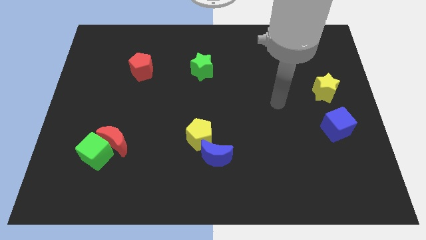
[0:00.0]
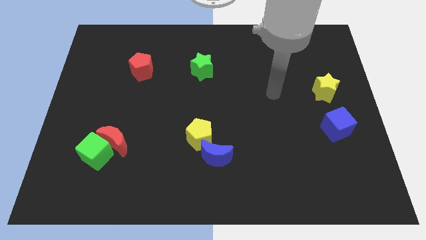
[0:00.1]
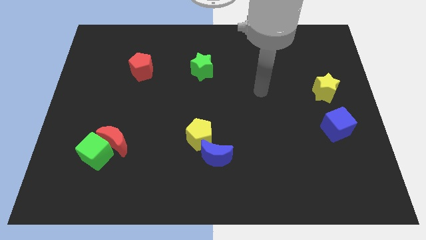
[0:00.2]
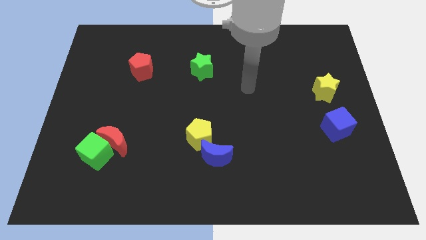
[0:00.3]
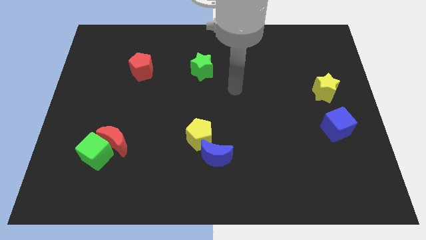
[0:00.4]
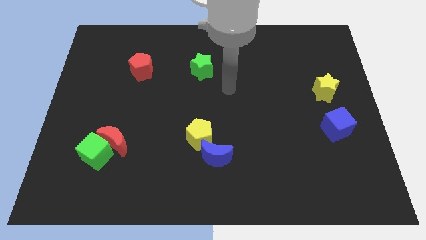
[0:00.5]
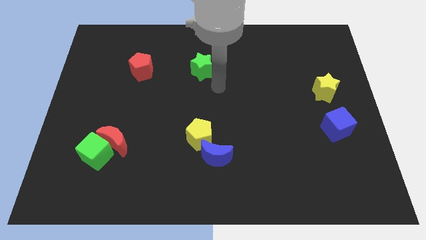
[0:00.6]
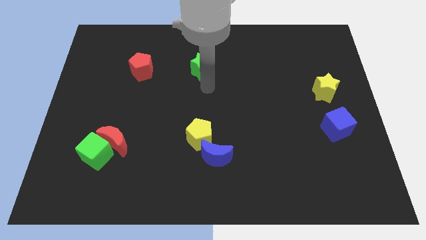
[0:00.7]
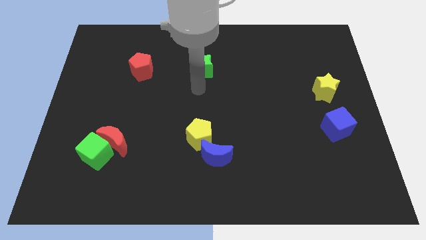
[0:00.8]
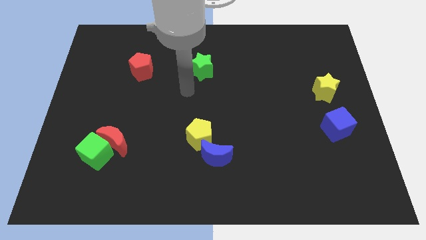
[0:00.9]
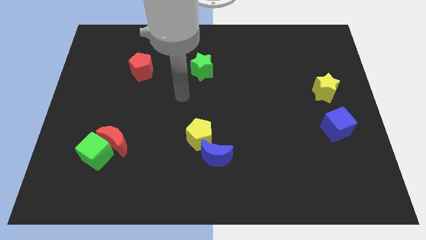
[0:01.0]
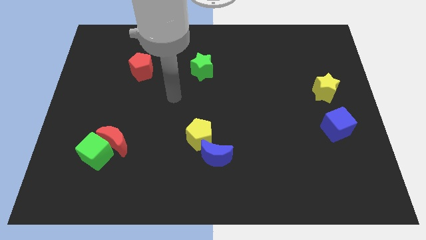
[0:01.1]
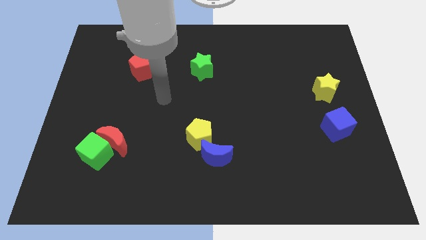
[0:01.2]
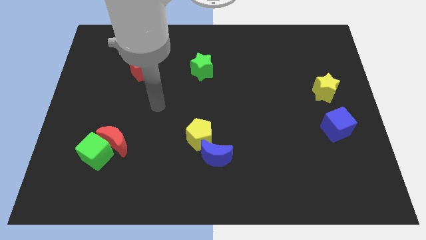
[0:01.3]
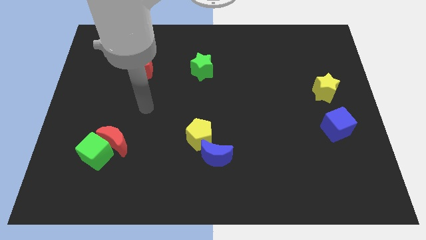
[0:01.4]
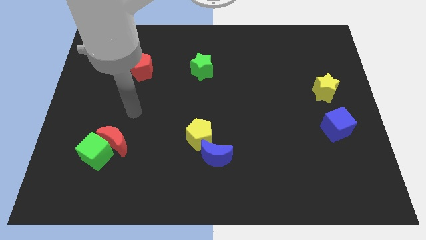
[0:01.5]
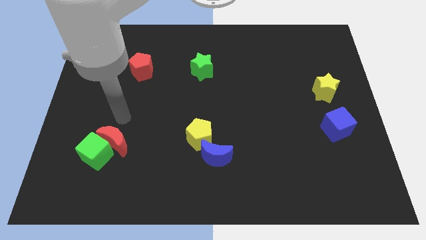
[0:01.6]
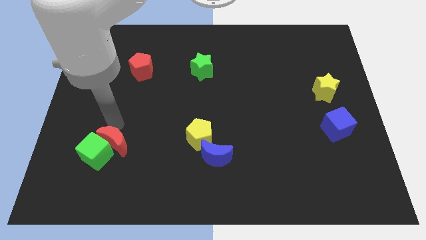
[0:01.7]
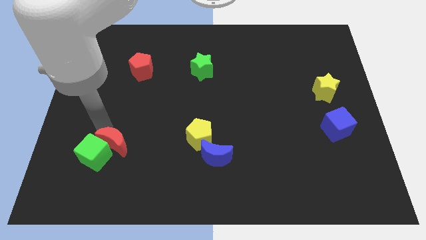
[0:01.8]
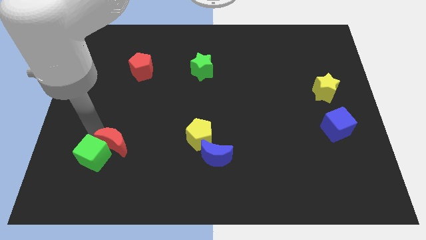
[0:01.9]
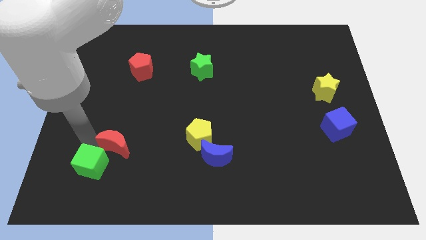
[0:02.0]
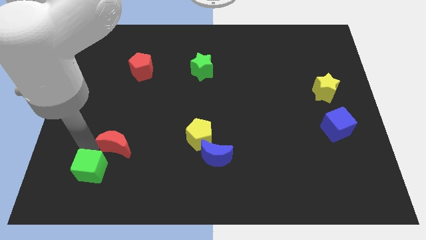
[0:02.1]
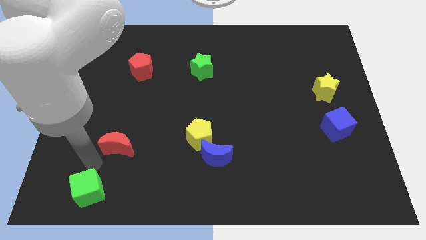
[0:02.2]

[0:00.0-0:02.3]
move the red moon away from the green cube

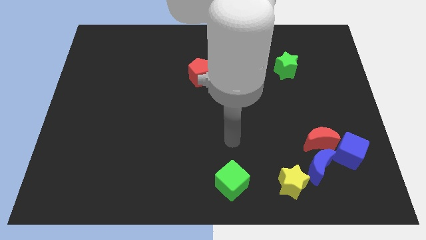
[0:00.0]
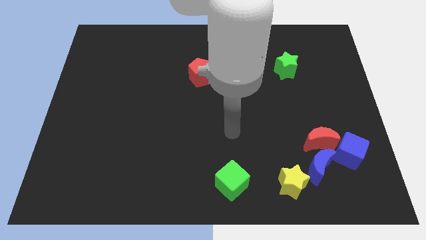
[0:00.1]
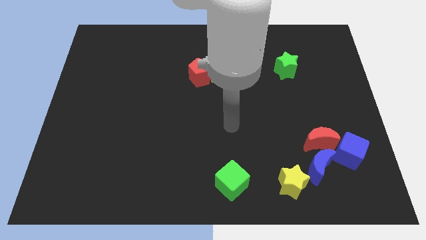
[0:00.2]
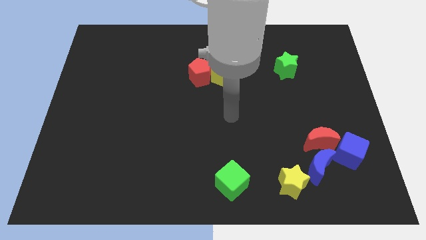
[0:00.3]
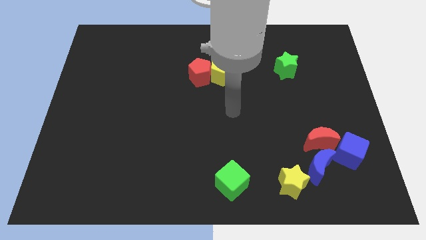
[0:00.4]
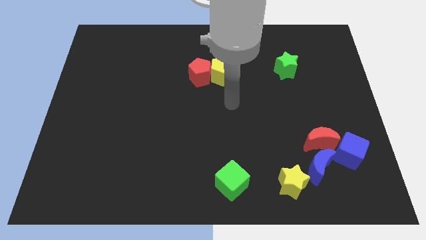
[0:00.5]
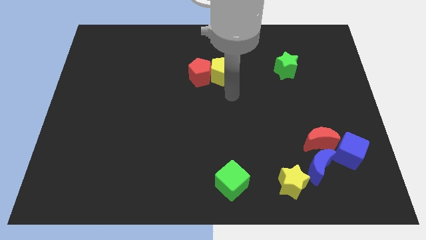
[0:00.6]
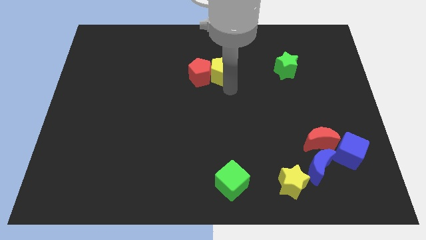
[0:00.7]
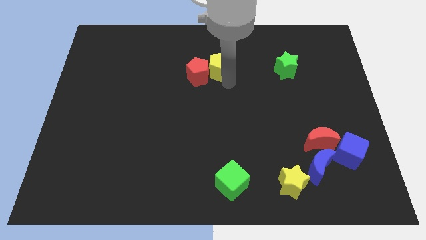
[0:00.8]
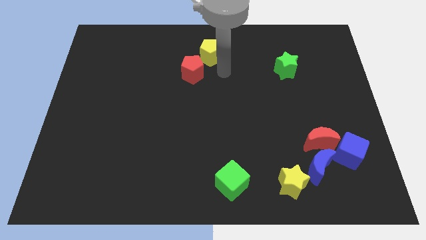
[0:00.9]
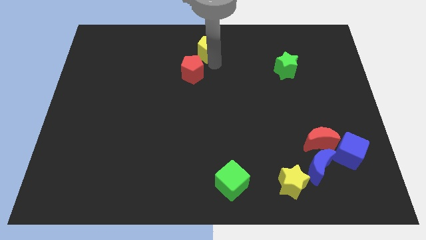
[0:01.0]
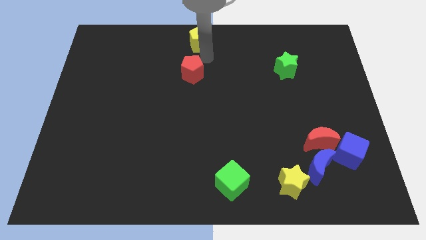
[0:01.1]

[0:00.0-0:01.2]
separate the red pentagon from the yellow pentagon

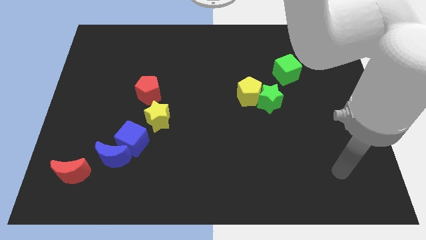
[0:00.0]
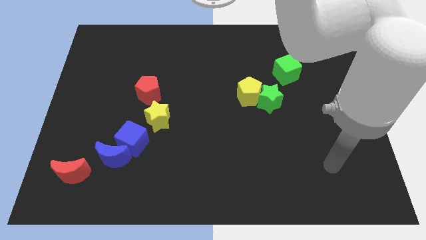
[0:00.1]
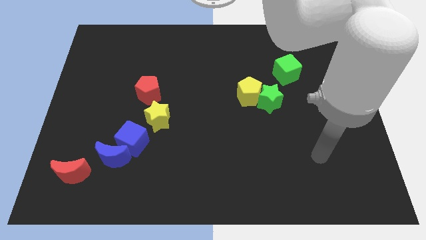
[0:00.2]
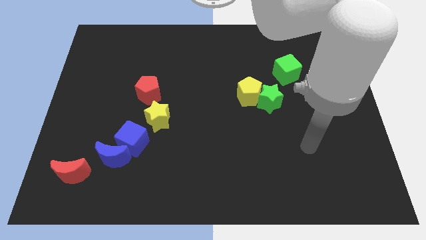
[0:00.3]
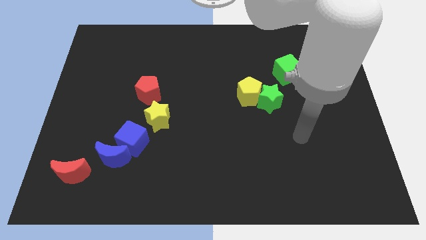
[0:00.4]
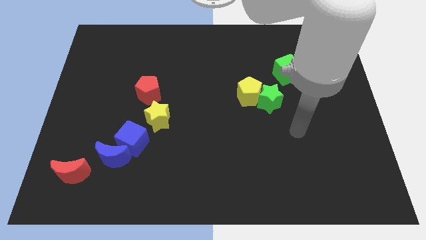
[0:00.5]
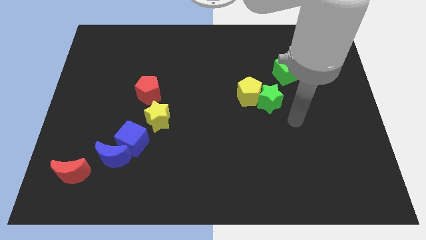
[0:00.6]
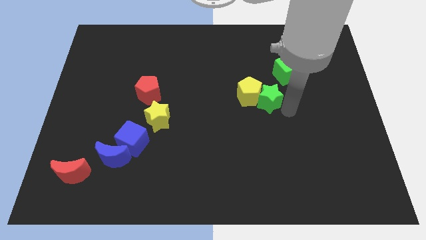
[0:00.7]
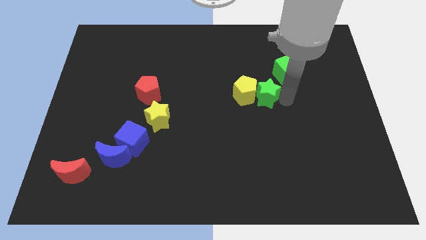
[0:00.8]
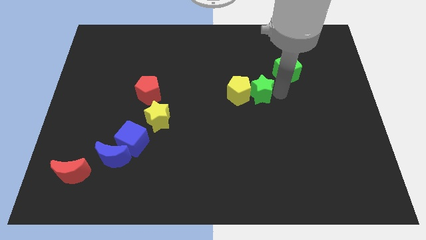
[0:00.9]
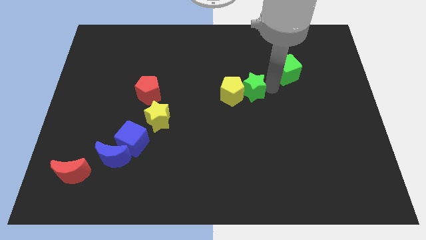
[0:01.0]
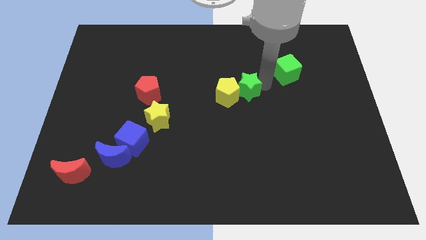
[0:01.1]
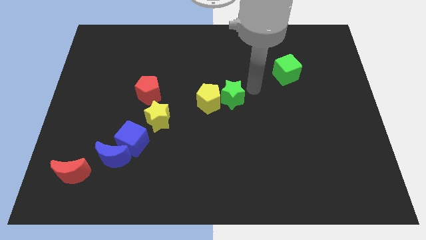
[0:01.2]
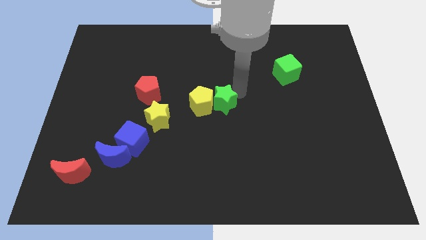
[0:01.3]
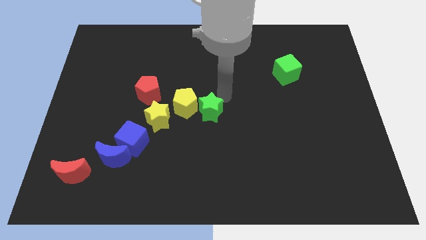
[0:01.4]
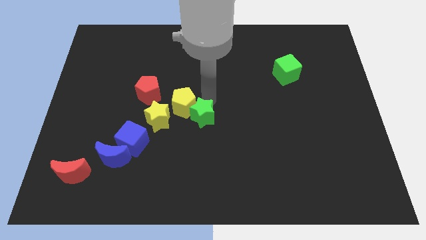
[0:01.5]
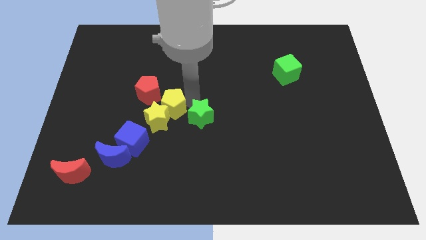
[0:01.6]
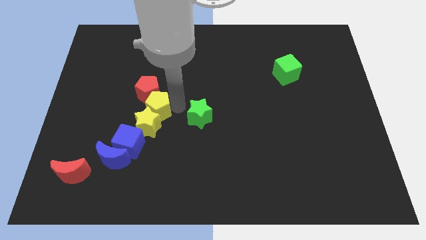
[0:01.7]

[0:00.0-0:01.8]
separate the green star from the yellow pentagon

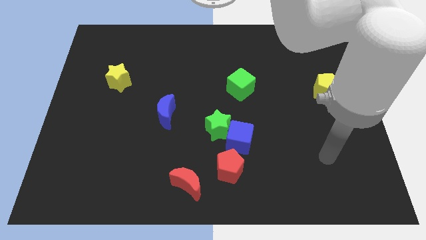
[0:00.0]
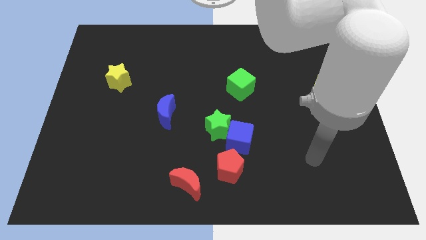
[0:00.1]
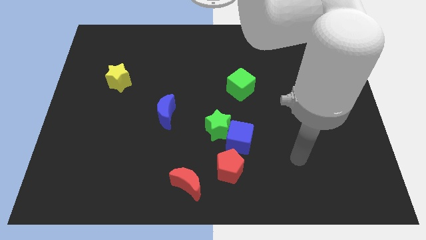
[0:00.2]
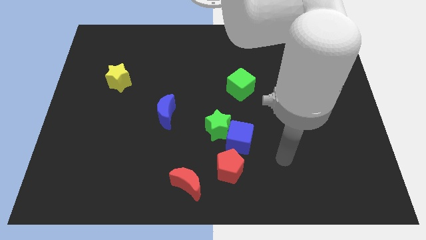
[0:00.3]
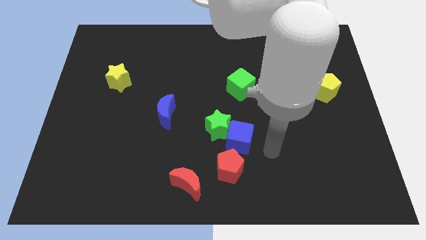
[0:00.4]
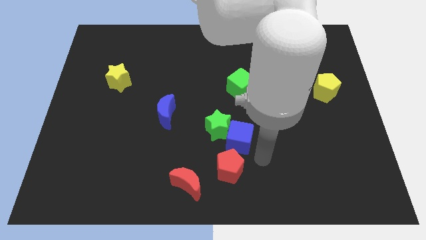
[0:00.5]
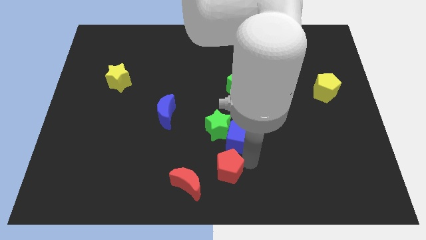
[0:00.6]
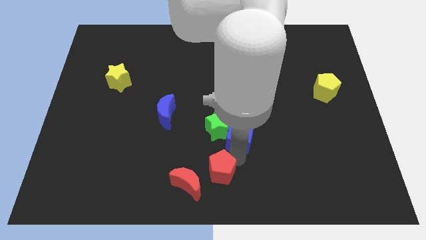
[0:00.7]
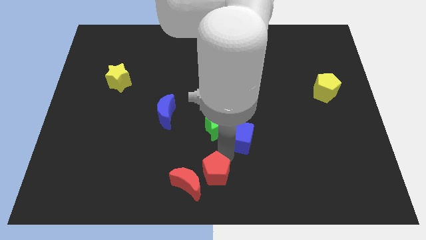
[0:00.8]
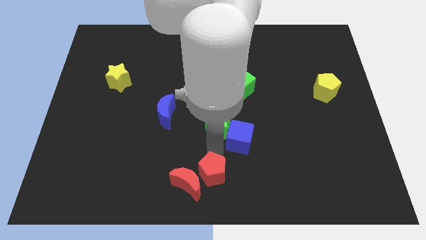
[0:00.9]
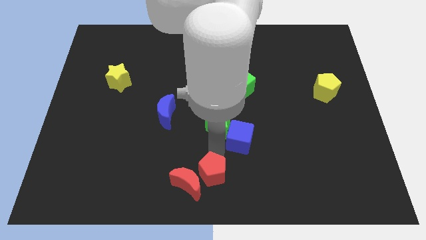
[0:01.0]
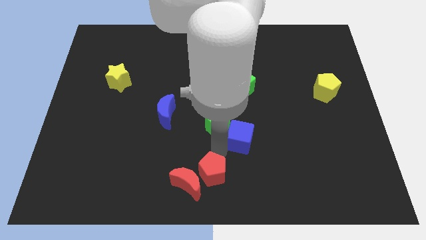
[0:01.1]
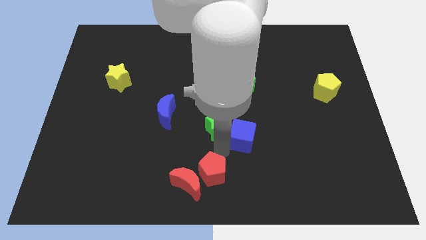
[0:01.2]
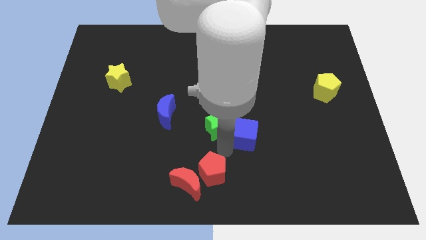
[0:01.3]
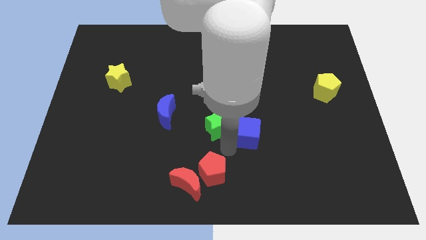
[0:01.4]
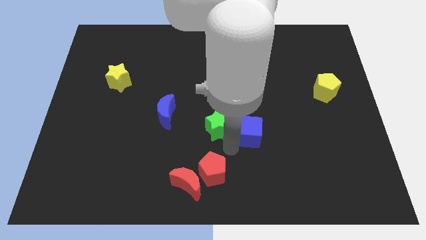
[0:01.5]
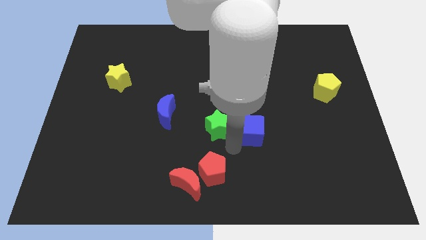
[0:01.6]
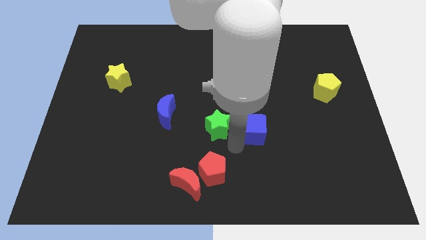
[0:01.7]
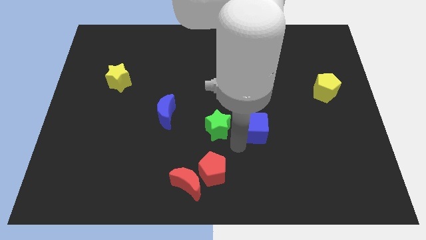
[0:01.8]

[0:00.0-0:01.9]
separate the blue cube from the green star and red pentagon

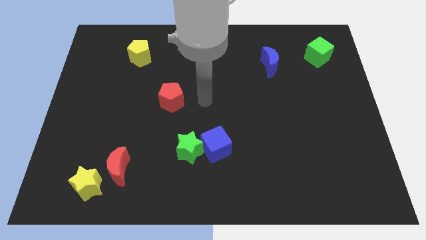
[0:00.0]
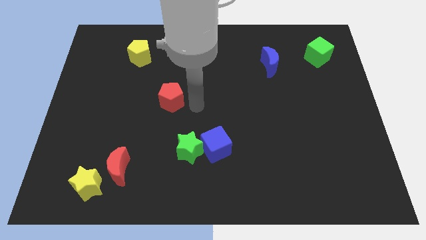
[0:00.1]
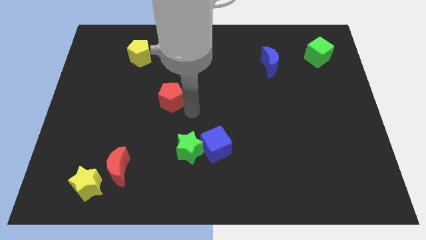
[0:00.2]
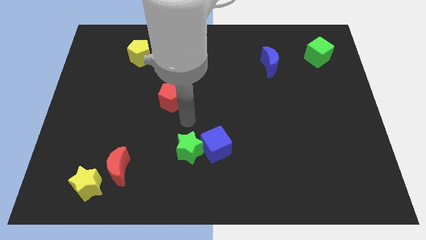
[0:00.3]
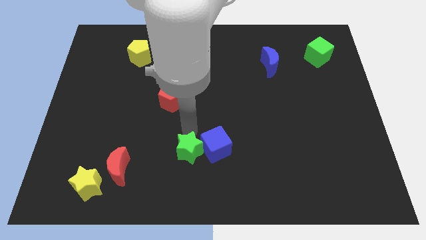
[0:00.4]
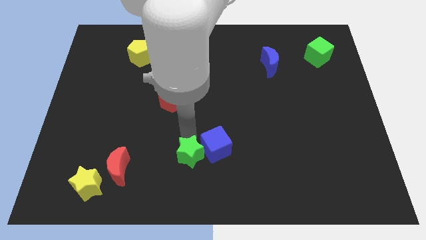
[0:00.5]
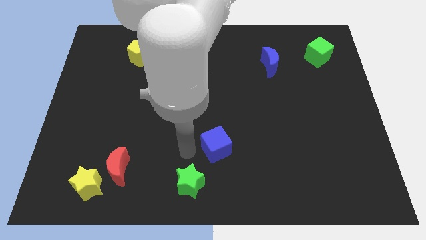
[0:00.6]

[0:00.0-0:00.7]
separate the blue cube from the green star

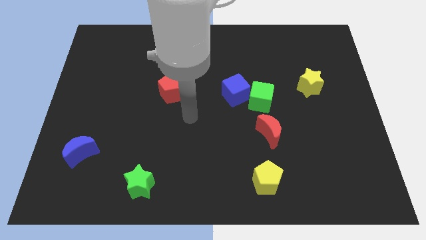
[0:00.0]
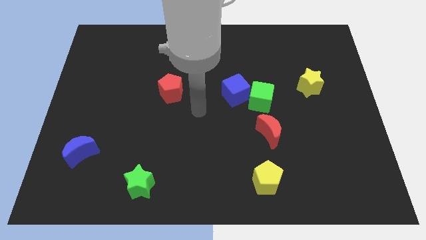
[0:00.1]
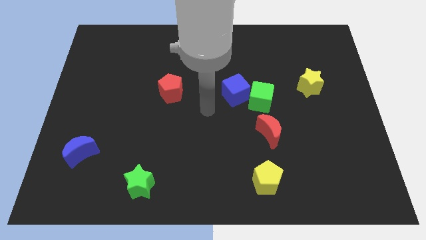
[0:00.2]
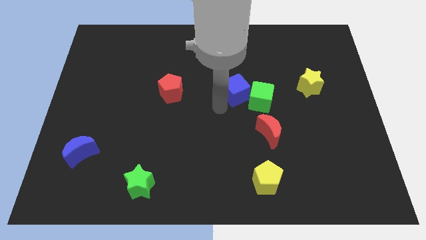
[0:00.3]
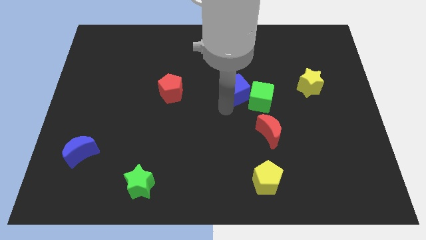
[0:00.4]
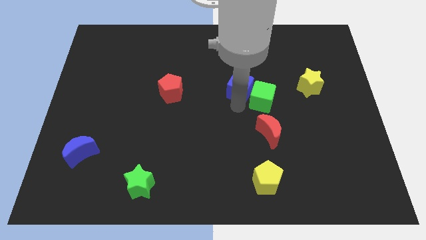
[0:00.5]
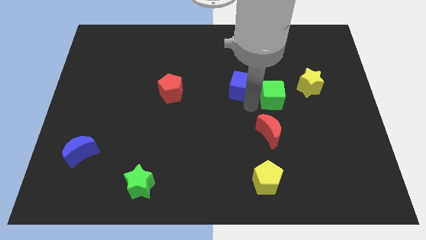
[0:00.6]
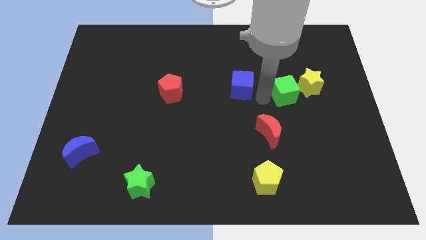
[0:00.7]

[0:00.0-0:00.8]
move the blue cube away from the green cube

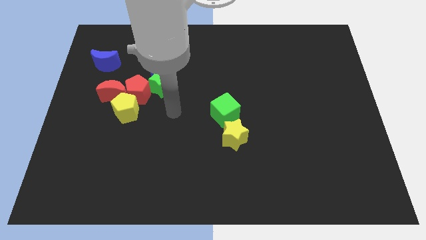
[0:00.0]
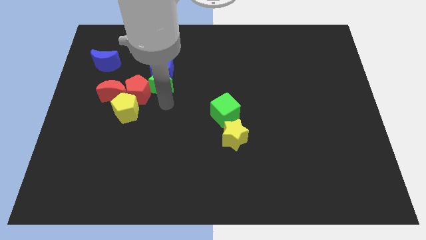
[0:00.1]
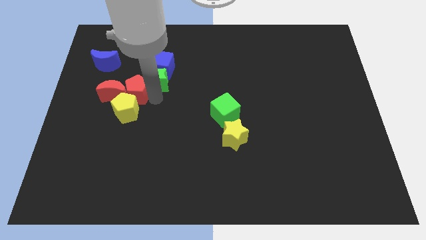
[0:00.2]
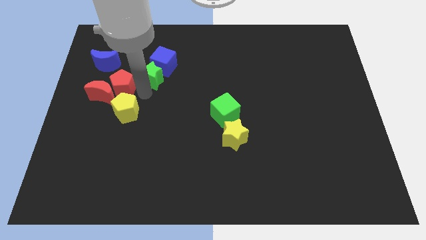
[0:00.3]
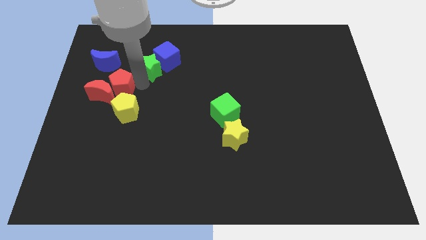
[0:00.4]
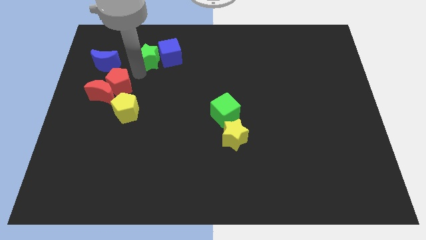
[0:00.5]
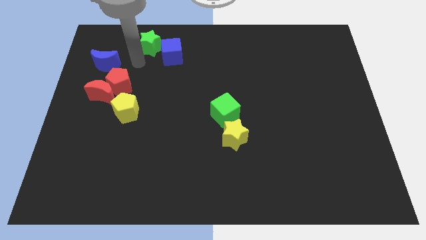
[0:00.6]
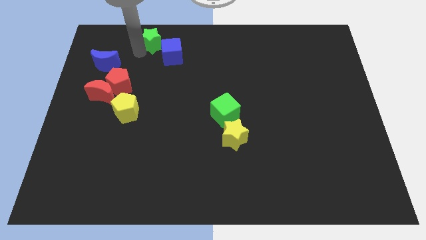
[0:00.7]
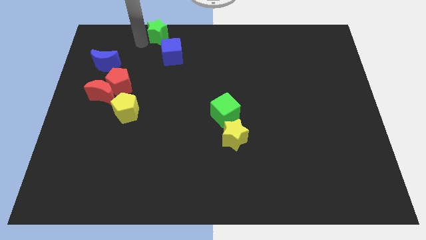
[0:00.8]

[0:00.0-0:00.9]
move the green star away from the blue cube and red pentagon
